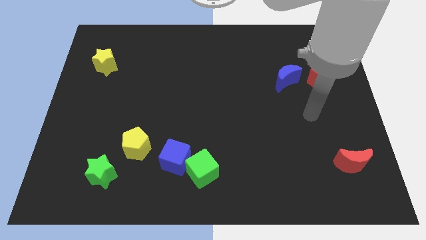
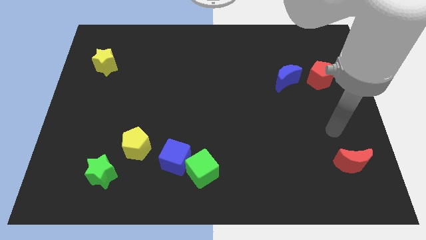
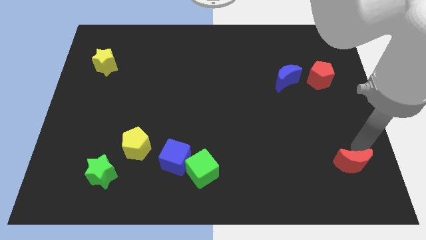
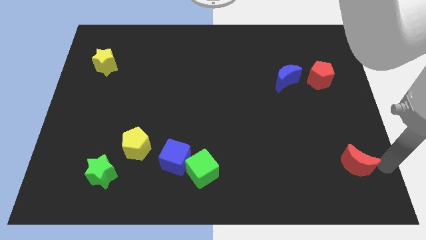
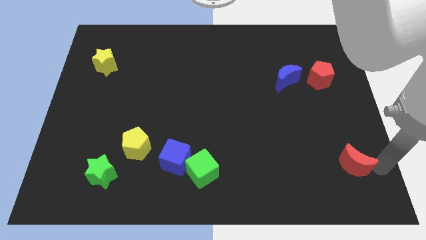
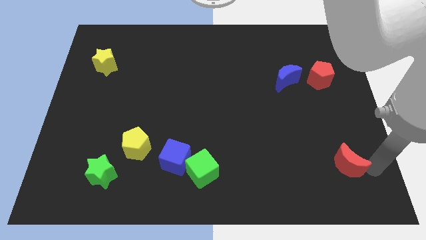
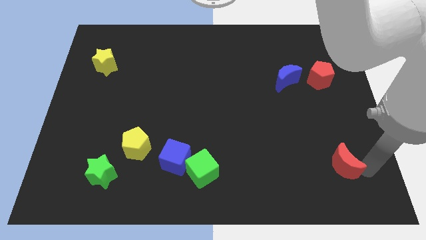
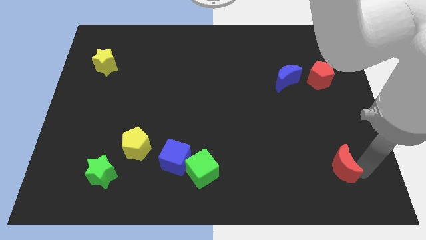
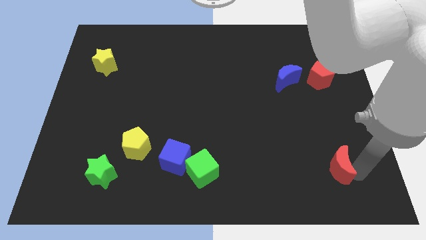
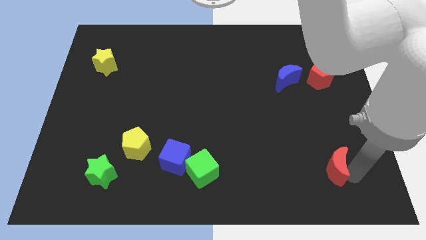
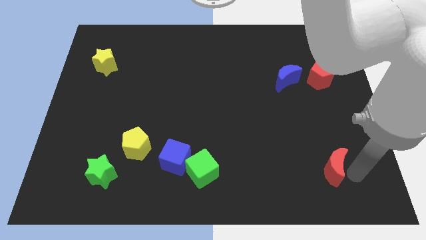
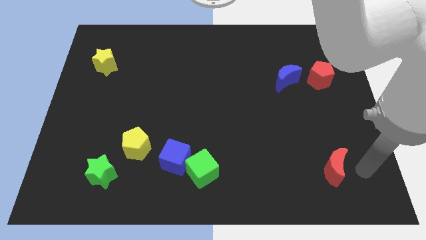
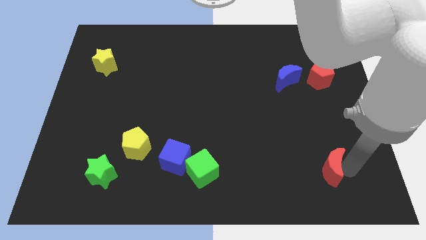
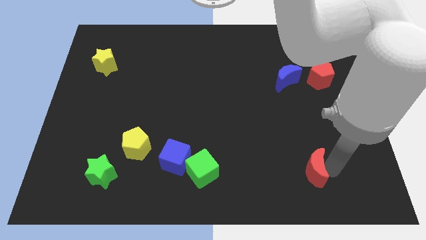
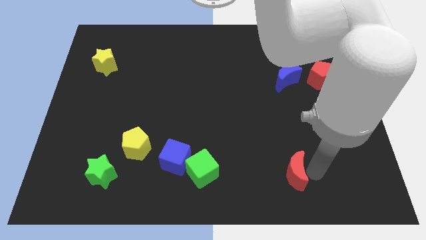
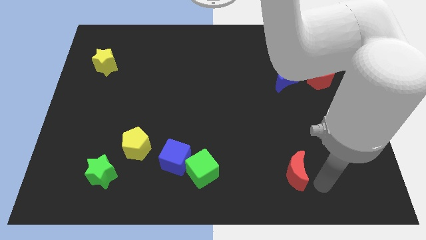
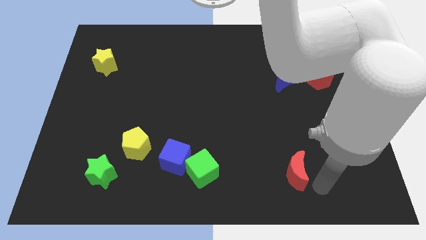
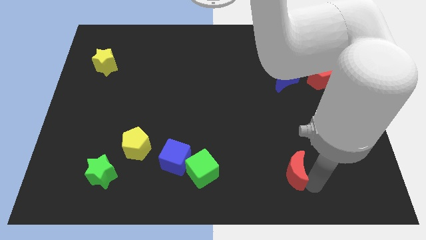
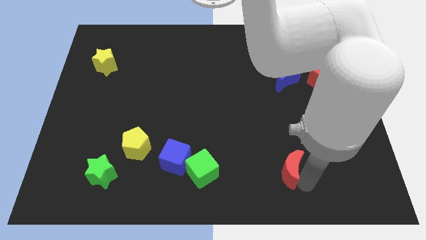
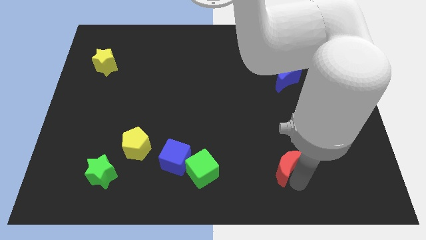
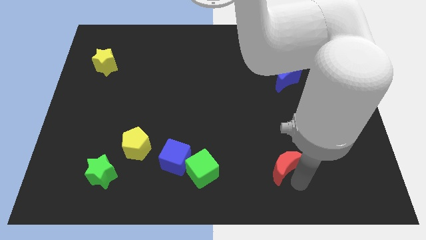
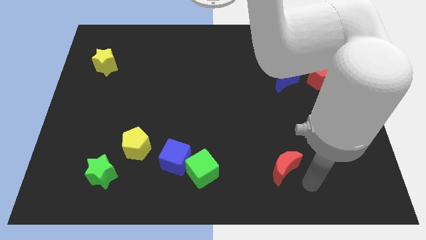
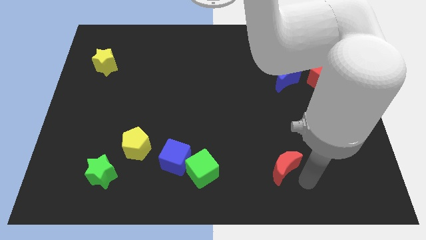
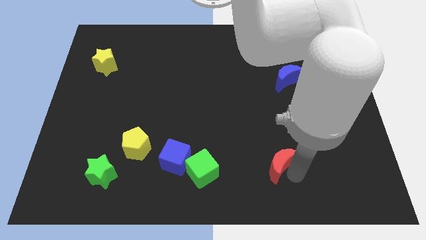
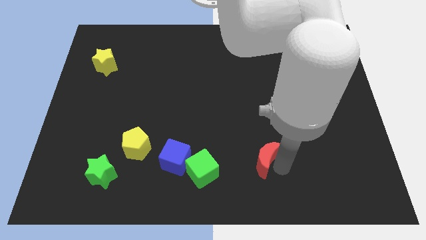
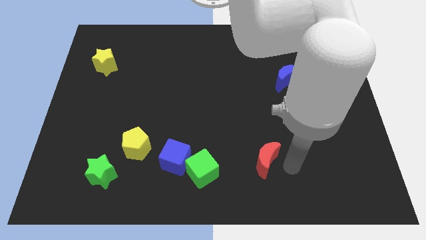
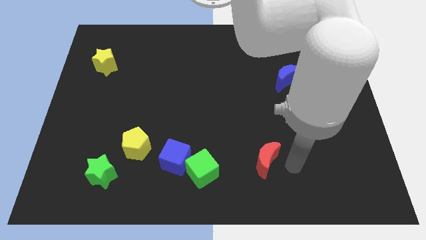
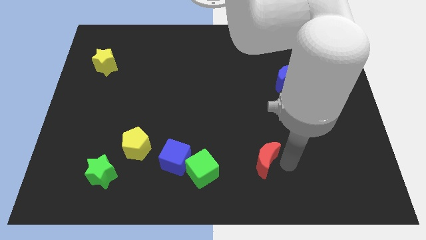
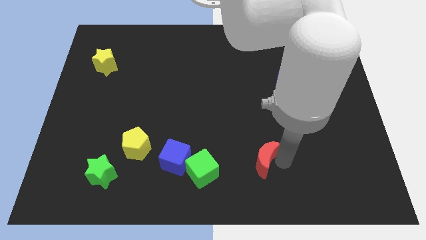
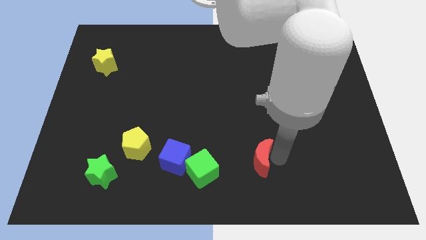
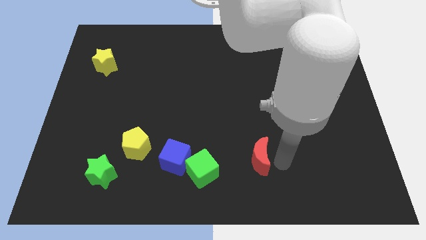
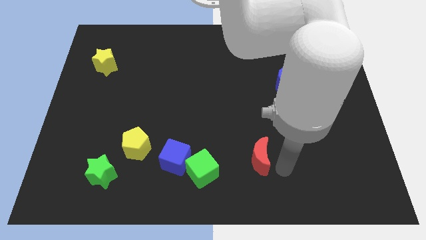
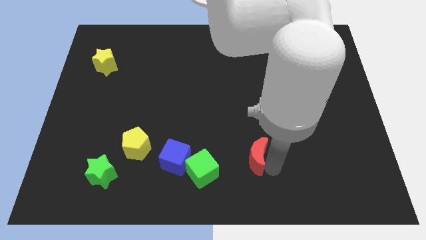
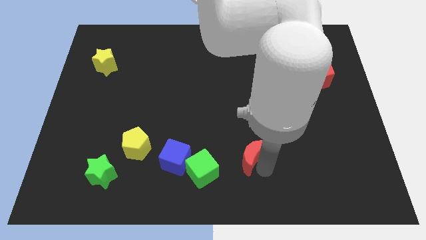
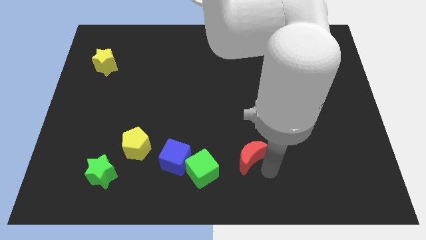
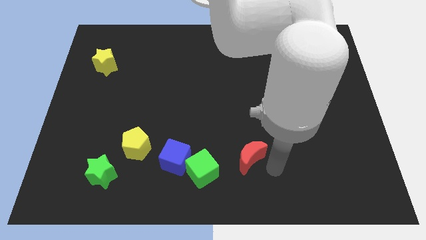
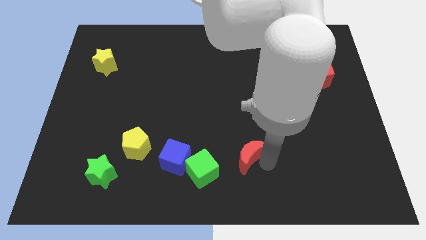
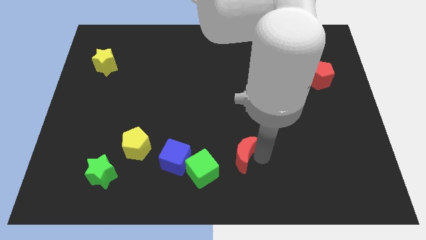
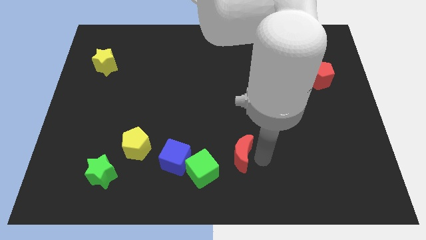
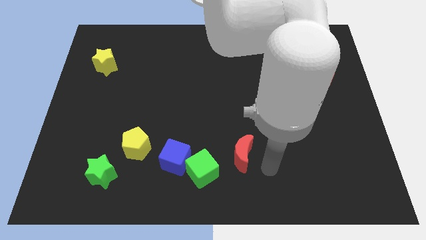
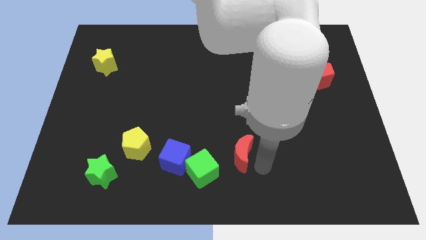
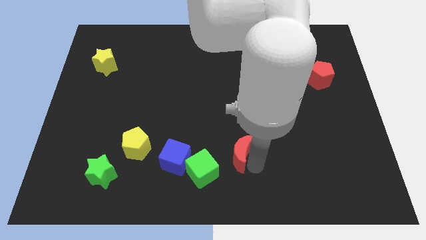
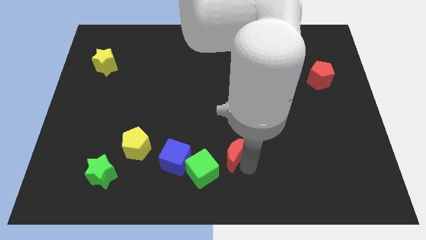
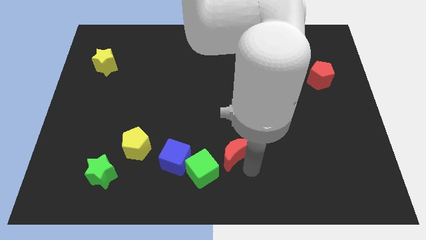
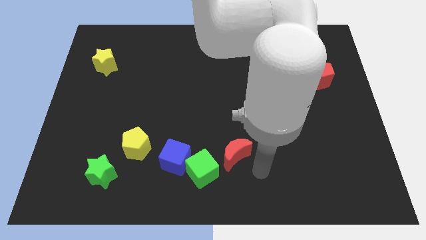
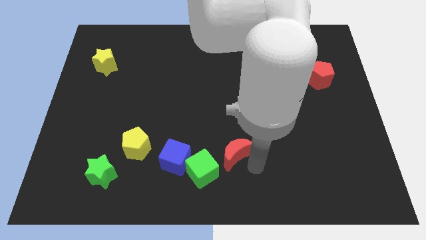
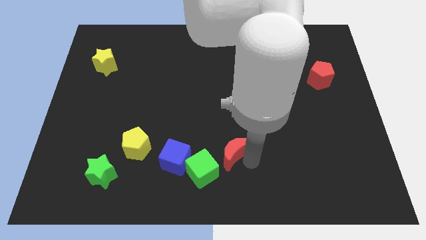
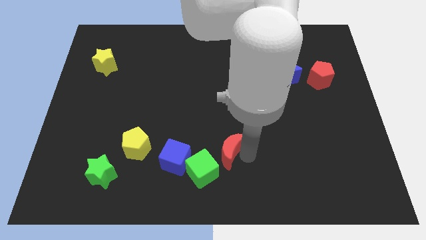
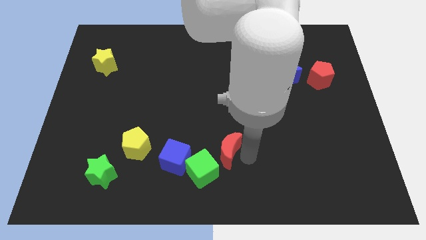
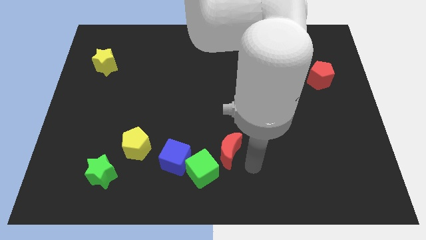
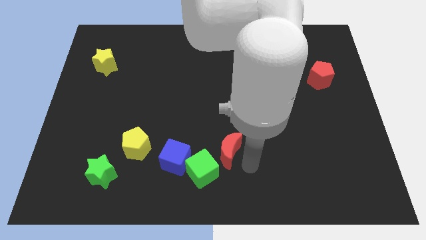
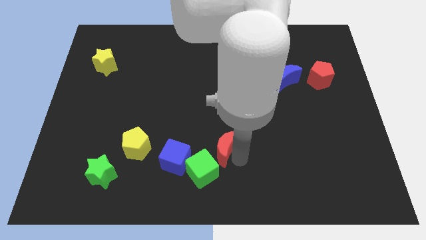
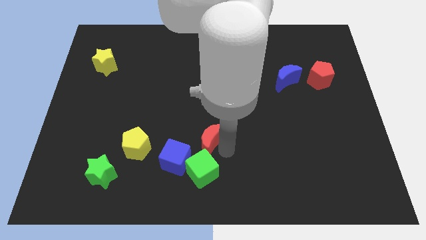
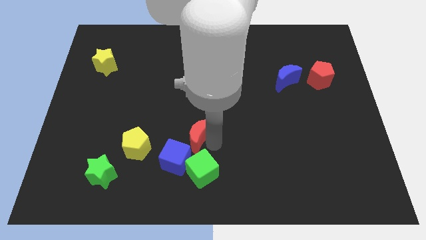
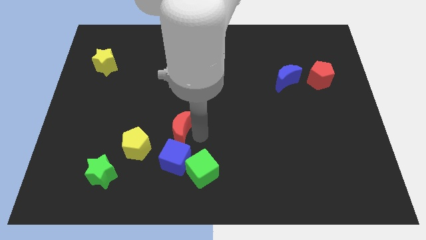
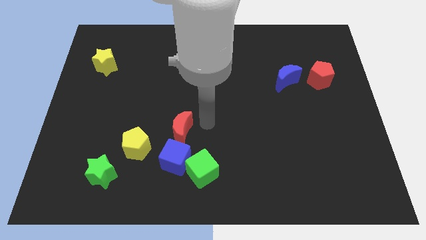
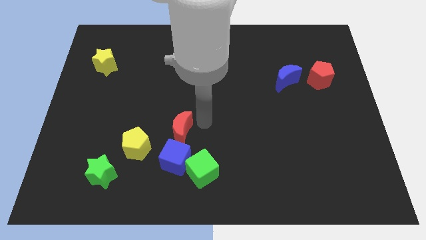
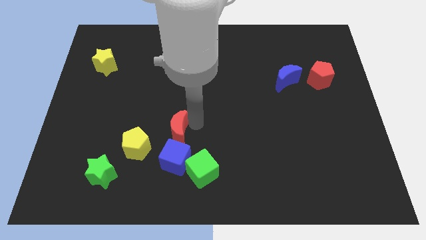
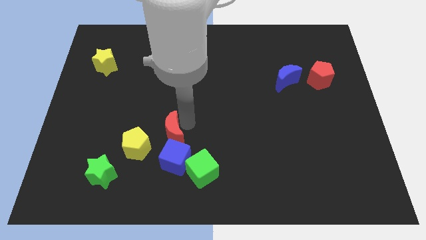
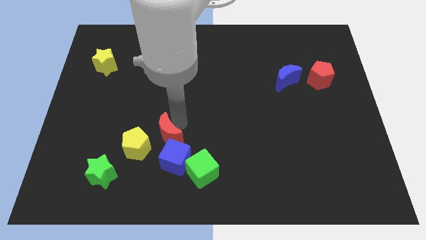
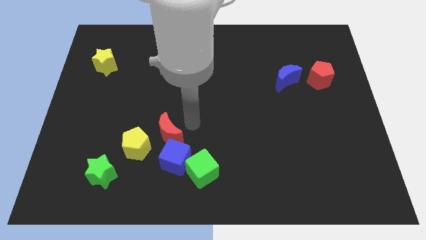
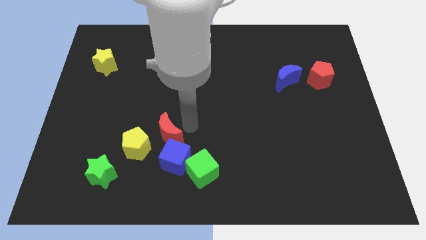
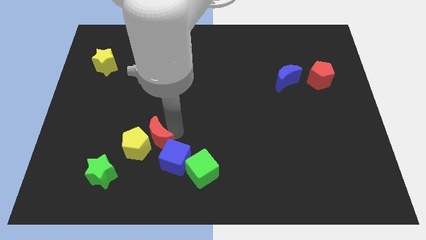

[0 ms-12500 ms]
put the red moon towards the yellow pentagon

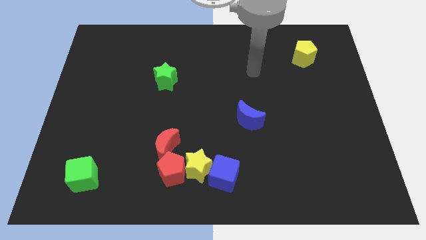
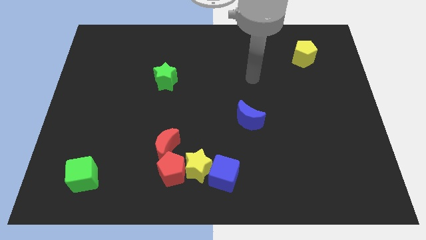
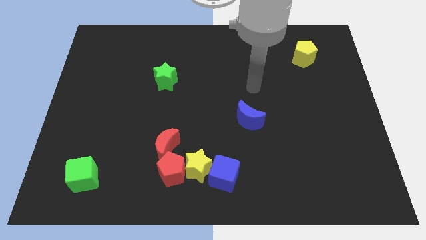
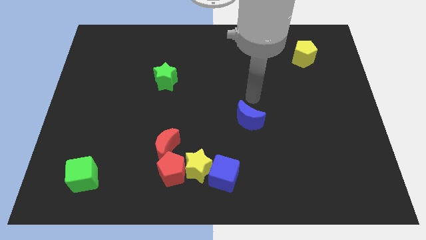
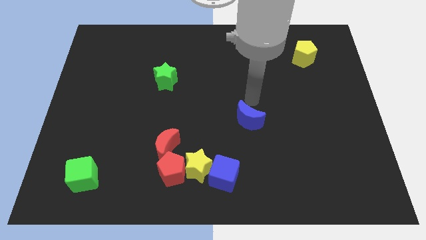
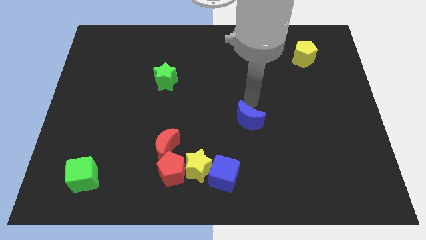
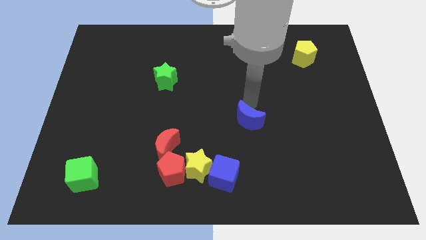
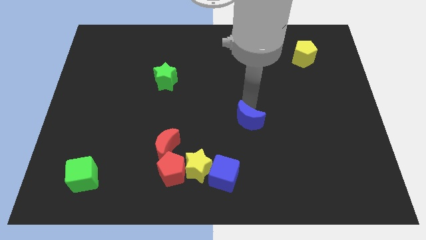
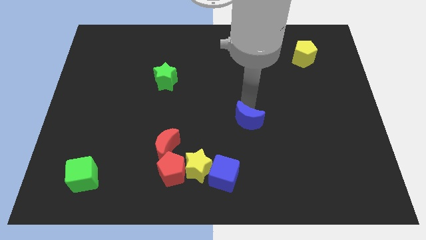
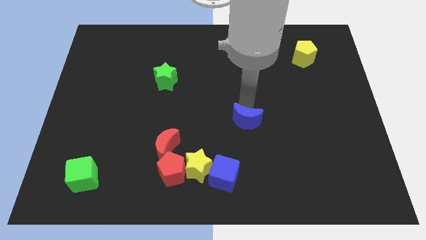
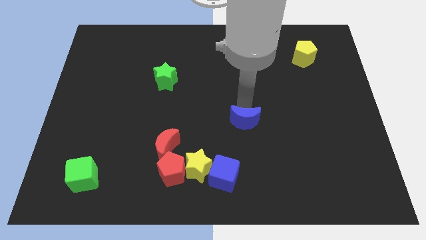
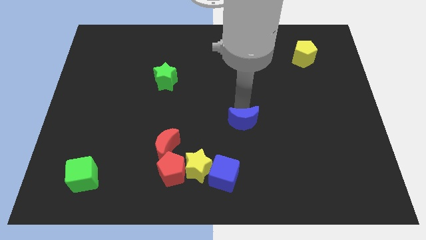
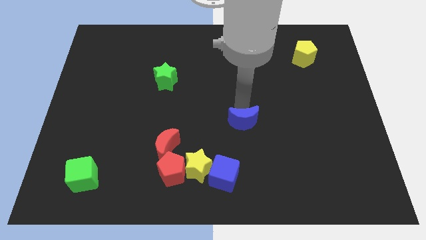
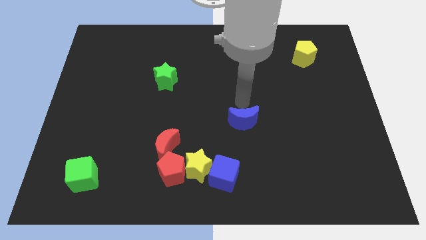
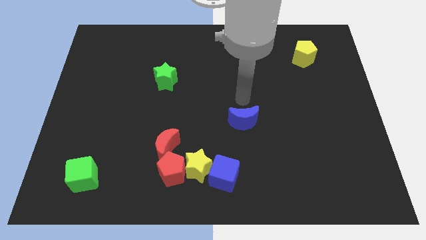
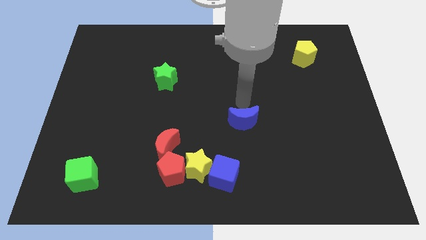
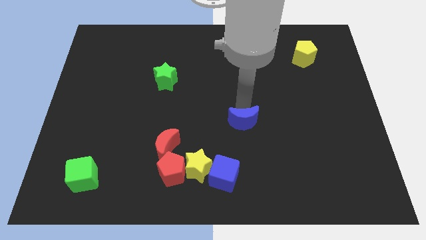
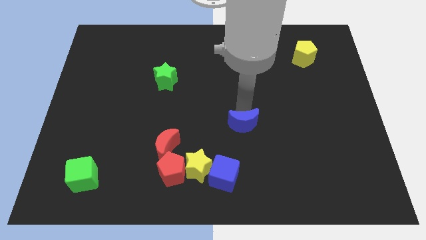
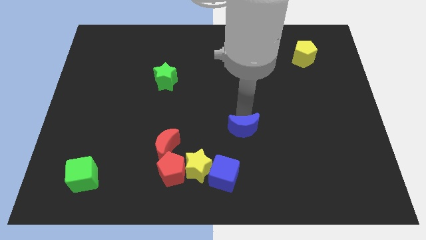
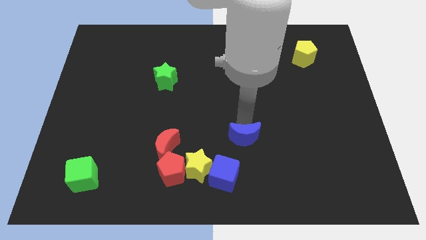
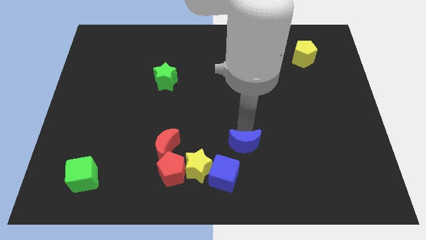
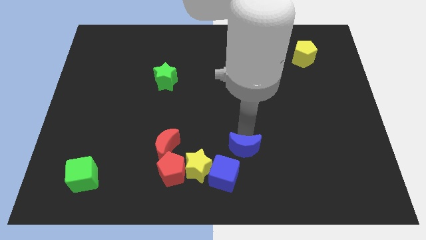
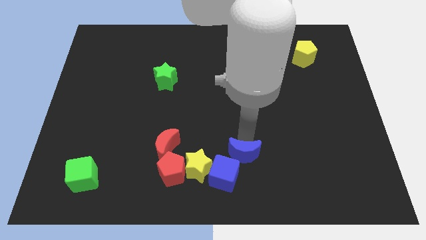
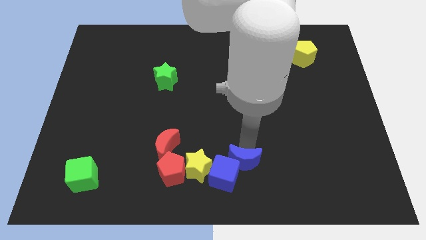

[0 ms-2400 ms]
move the blue moon to the blue cube
